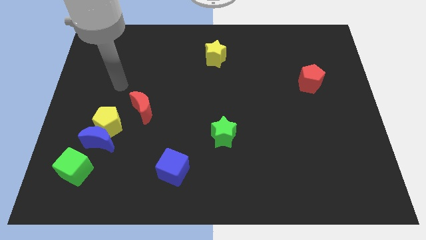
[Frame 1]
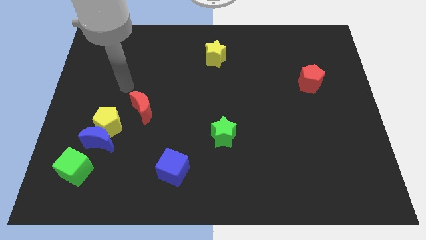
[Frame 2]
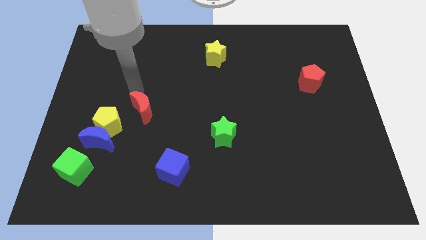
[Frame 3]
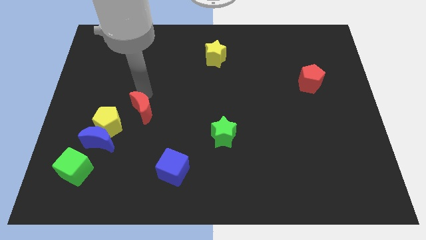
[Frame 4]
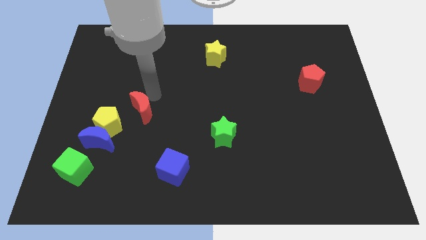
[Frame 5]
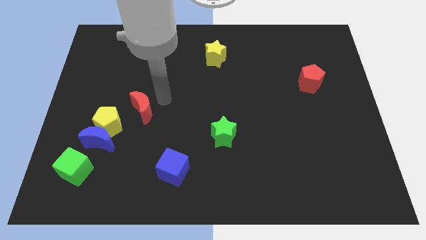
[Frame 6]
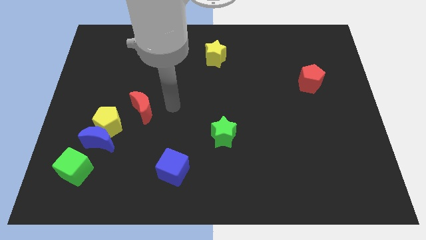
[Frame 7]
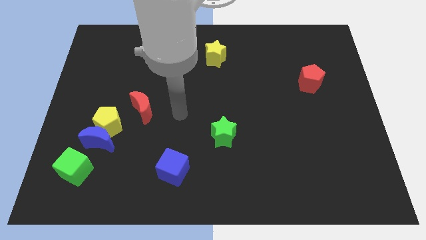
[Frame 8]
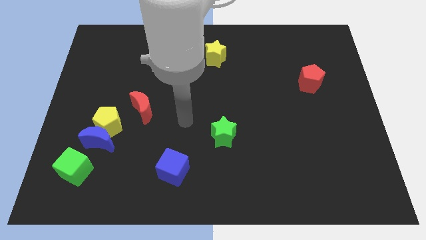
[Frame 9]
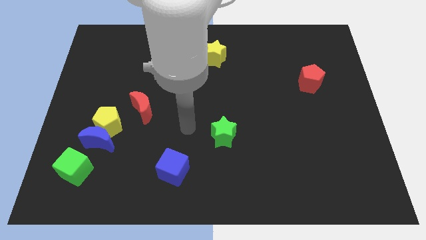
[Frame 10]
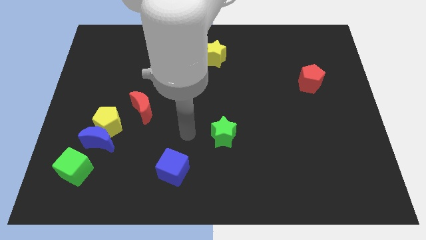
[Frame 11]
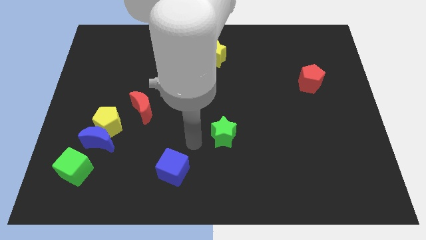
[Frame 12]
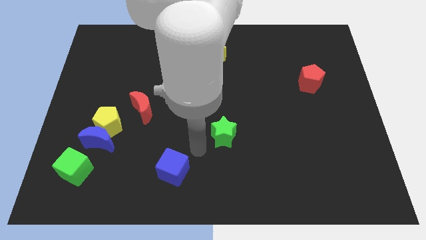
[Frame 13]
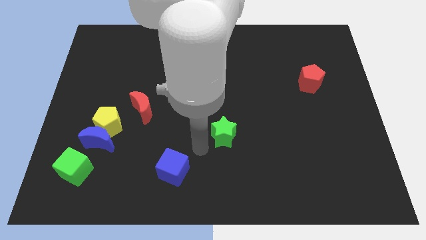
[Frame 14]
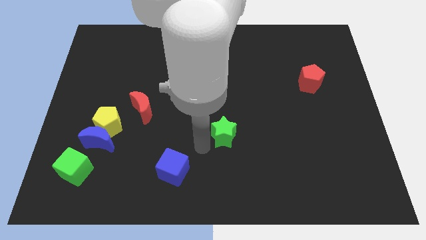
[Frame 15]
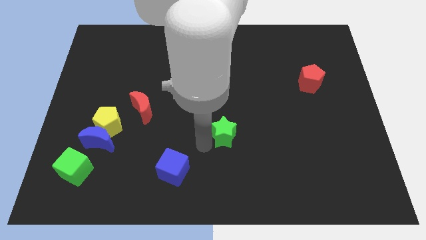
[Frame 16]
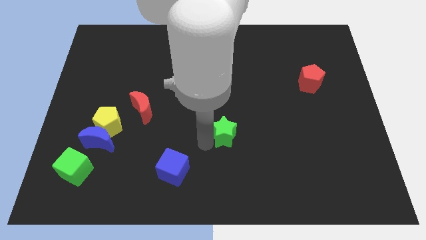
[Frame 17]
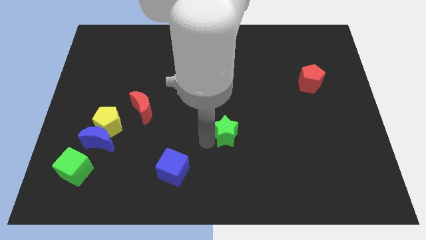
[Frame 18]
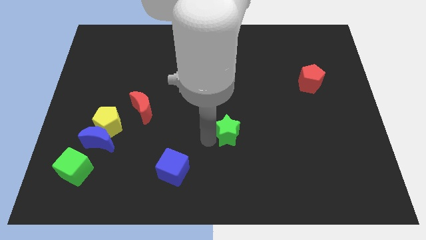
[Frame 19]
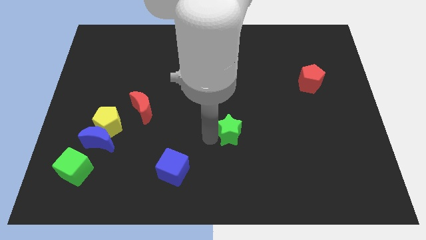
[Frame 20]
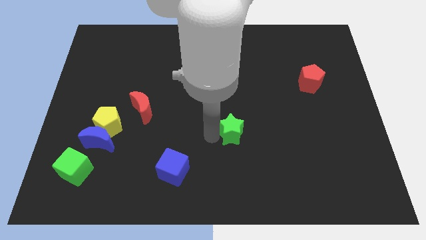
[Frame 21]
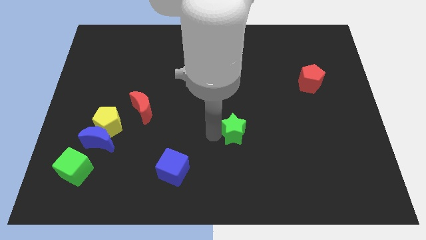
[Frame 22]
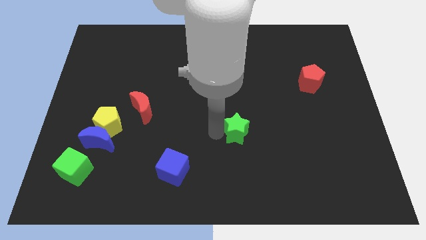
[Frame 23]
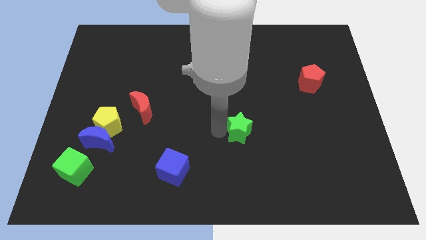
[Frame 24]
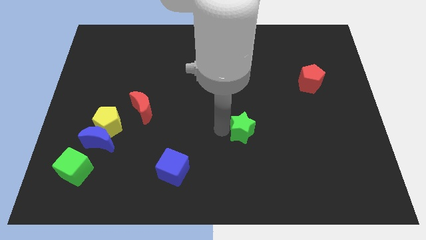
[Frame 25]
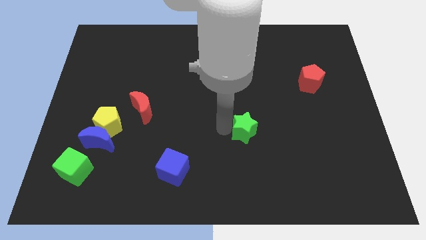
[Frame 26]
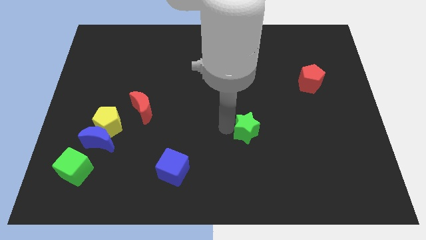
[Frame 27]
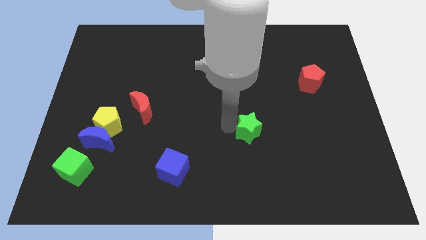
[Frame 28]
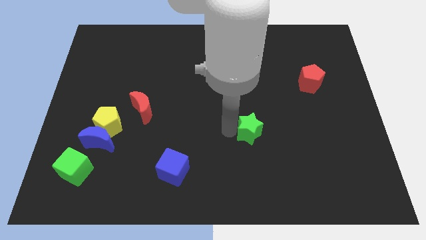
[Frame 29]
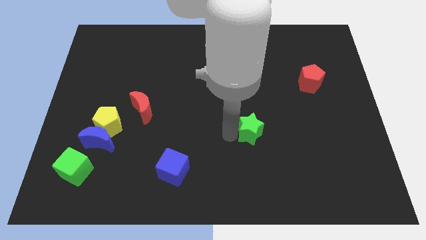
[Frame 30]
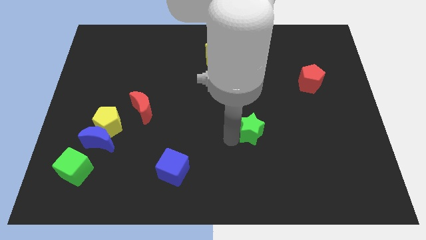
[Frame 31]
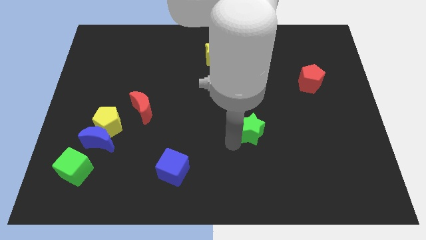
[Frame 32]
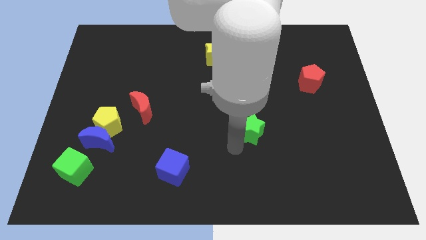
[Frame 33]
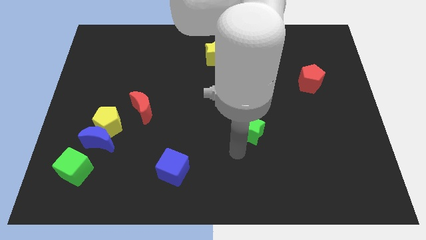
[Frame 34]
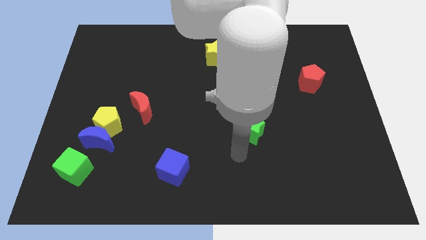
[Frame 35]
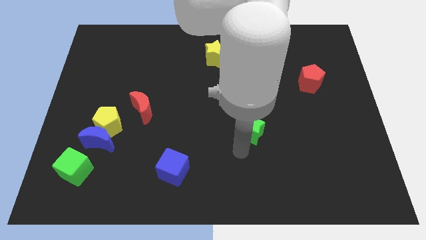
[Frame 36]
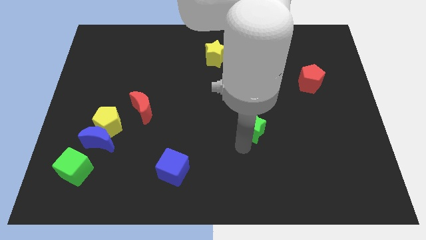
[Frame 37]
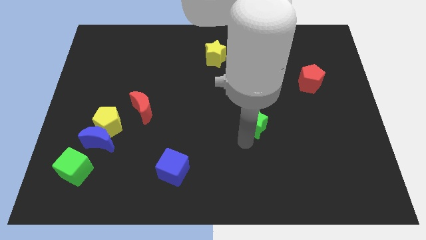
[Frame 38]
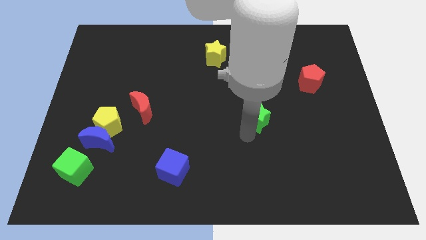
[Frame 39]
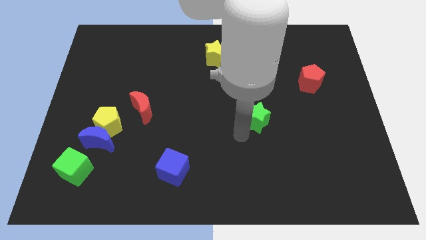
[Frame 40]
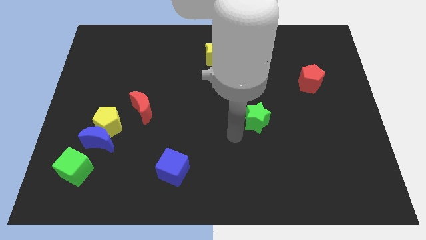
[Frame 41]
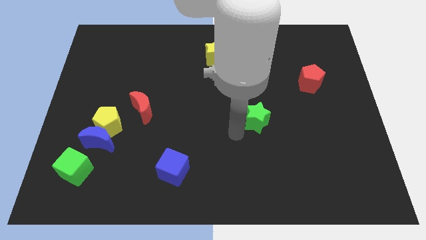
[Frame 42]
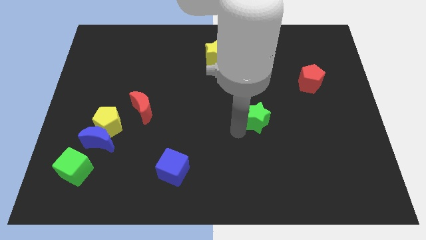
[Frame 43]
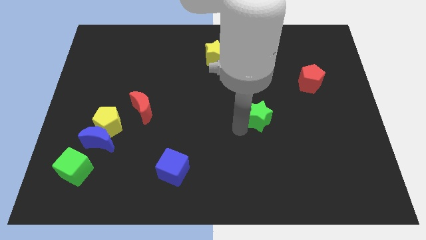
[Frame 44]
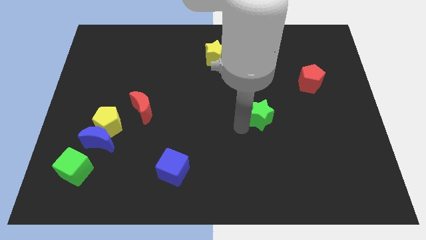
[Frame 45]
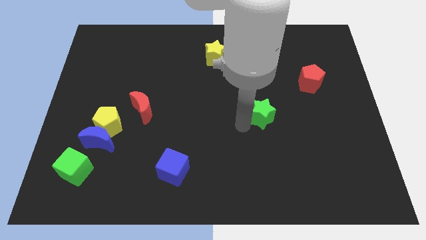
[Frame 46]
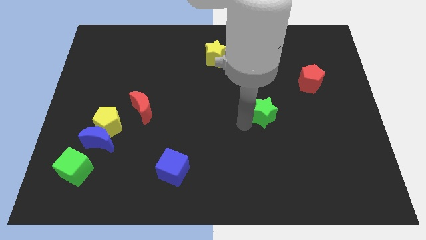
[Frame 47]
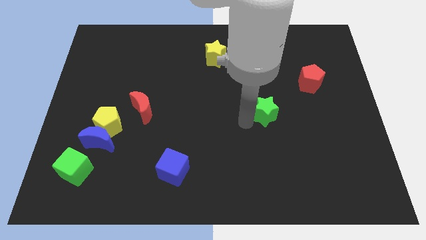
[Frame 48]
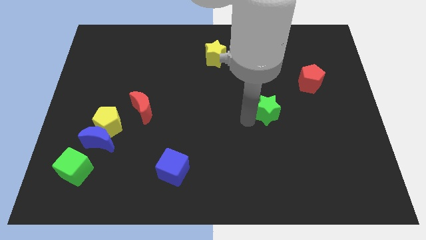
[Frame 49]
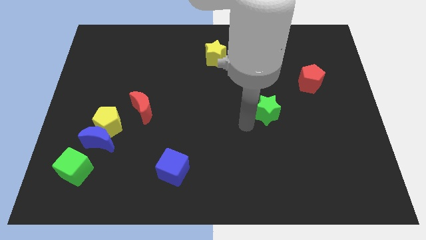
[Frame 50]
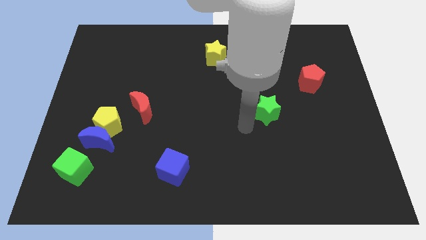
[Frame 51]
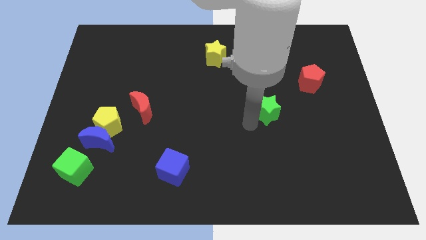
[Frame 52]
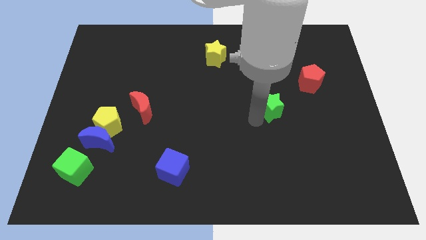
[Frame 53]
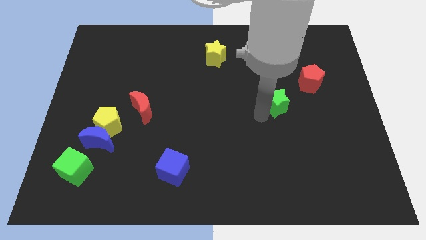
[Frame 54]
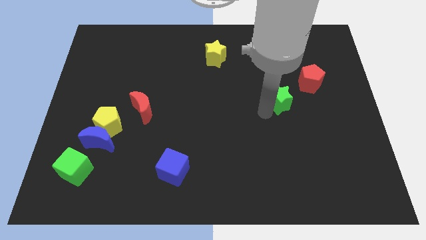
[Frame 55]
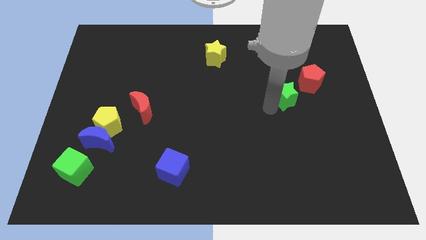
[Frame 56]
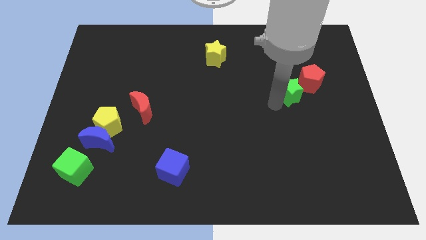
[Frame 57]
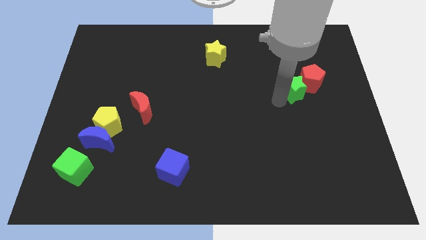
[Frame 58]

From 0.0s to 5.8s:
slide the green star to the red pentagon

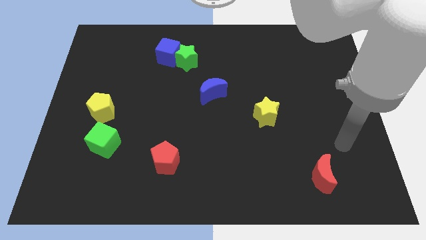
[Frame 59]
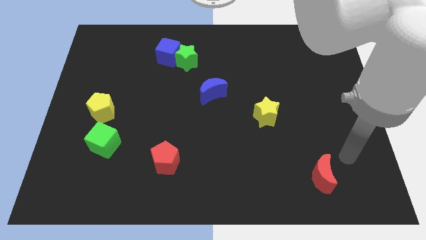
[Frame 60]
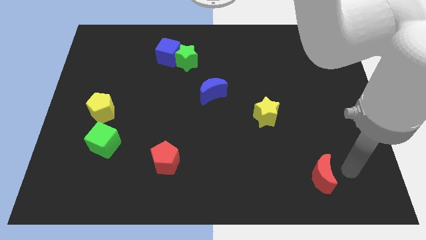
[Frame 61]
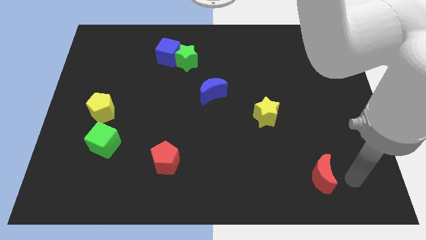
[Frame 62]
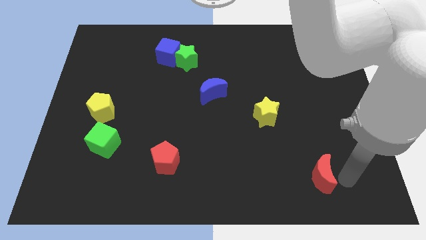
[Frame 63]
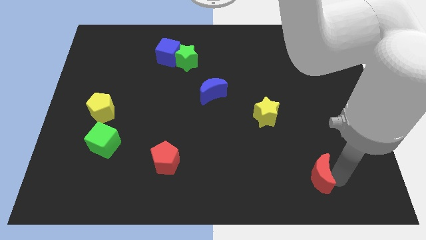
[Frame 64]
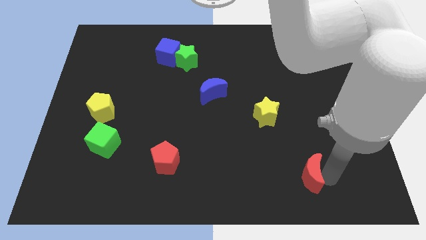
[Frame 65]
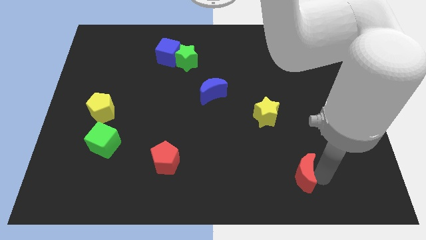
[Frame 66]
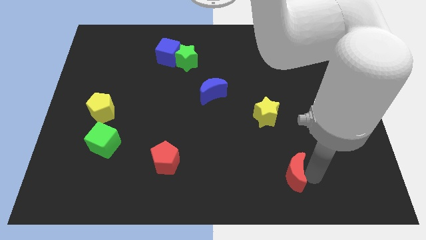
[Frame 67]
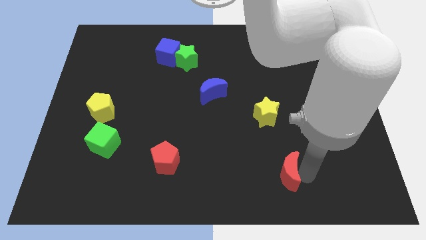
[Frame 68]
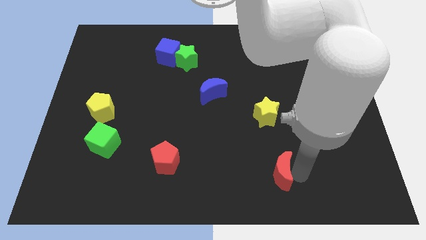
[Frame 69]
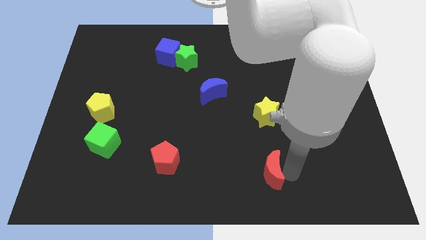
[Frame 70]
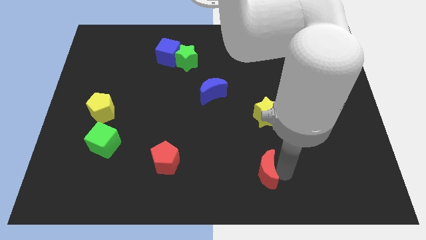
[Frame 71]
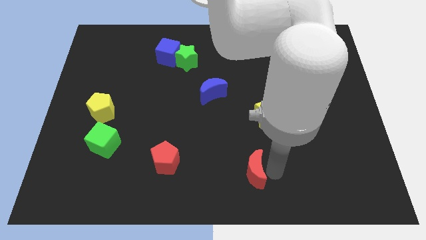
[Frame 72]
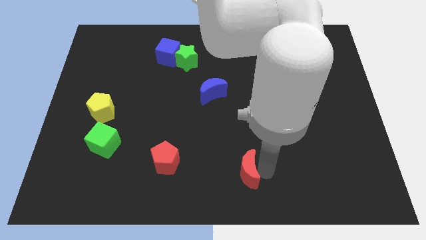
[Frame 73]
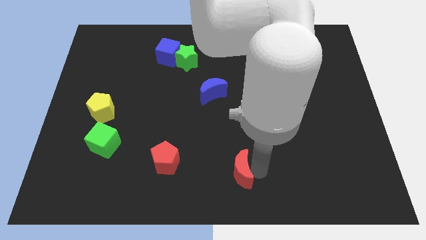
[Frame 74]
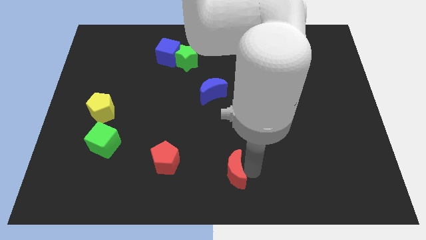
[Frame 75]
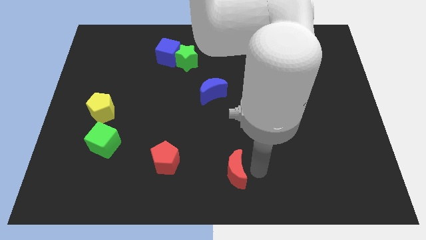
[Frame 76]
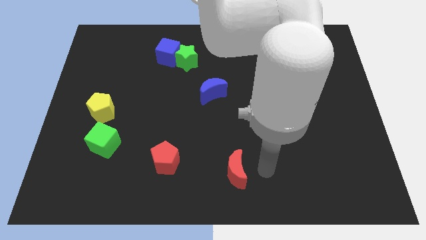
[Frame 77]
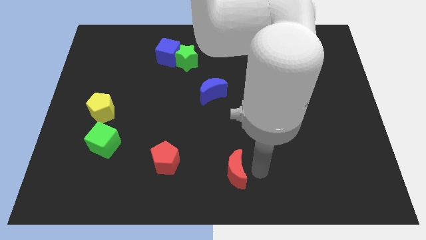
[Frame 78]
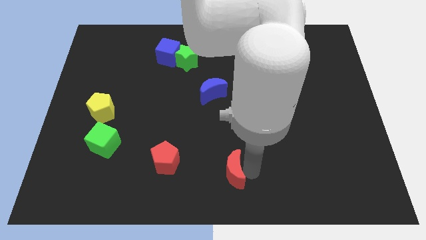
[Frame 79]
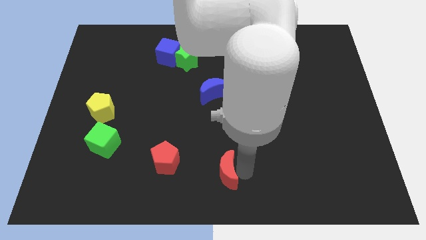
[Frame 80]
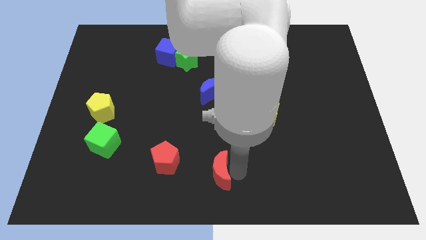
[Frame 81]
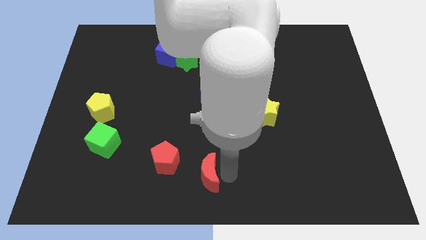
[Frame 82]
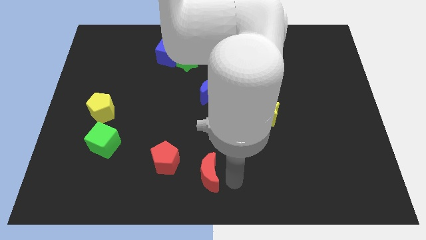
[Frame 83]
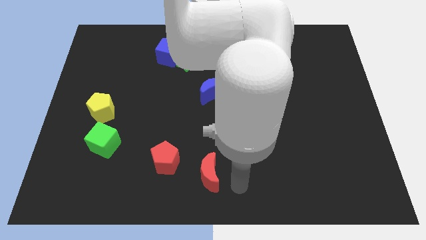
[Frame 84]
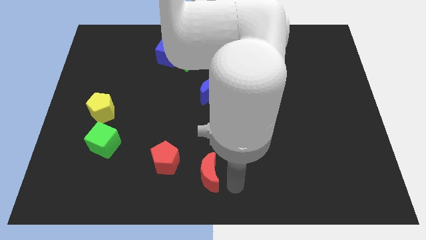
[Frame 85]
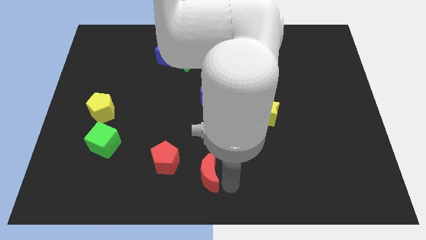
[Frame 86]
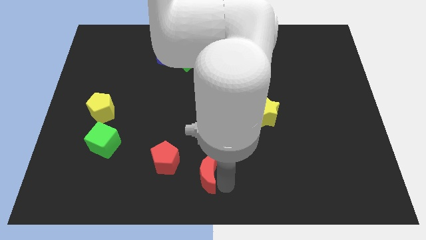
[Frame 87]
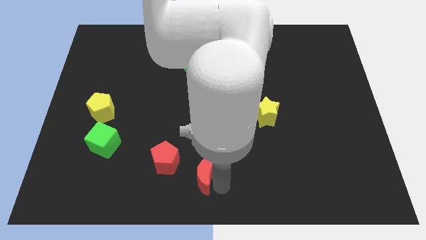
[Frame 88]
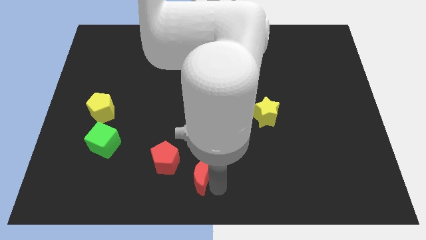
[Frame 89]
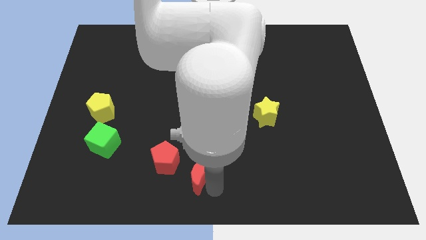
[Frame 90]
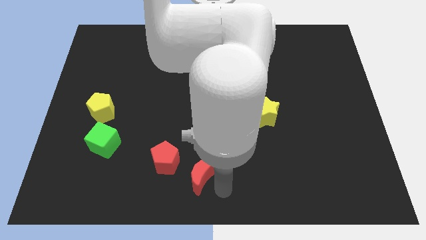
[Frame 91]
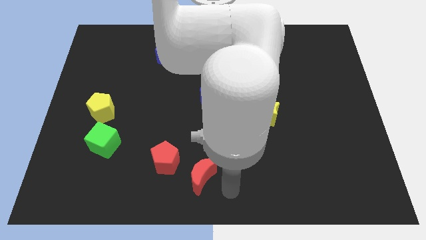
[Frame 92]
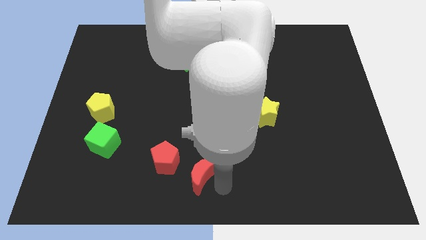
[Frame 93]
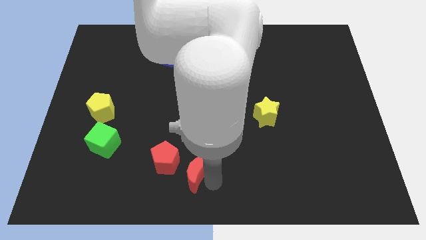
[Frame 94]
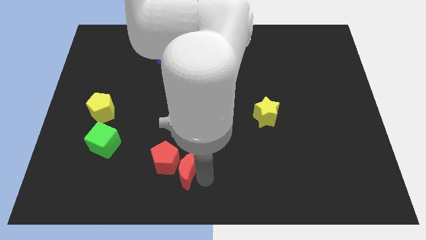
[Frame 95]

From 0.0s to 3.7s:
slide the red moon close to the red pentagon
